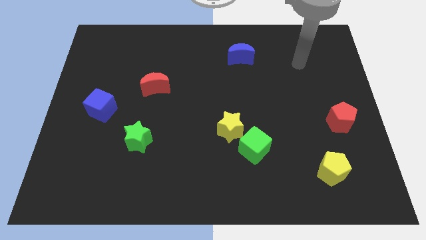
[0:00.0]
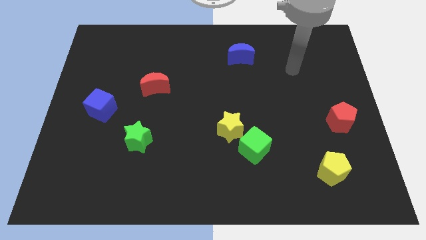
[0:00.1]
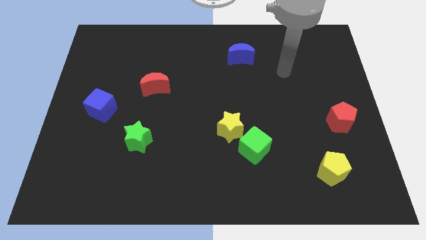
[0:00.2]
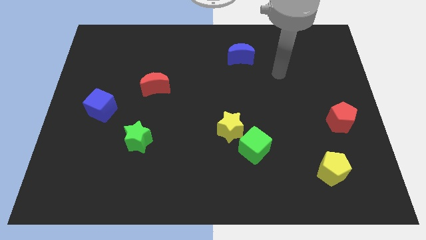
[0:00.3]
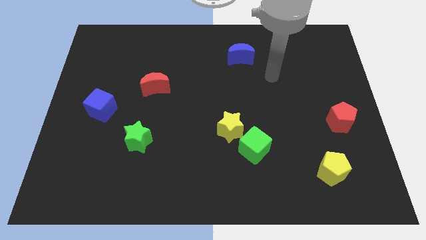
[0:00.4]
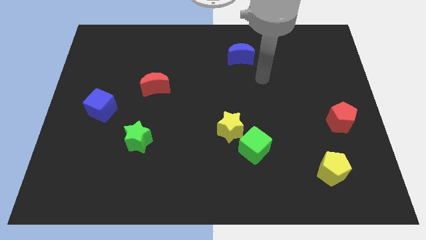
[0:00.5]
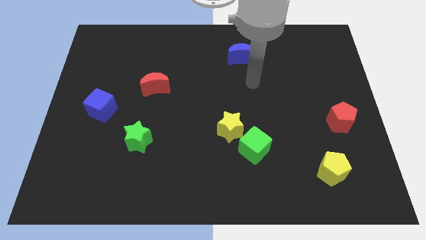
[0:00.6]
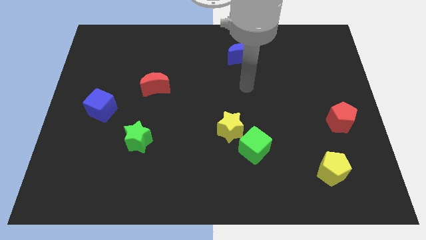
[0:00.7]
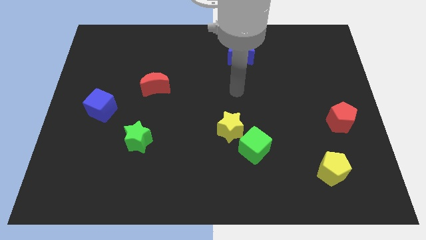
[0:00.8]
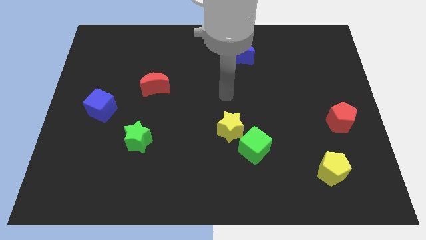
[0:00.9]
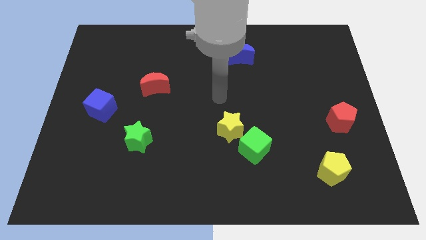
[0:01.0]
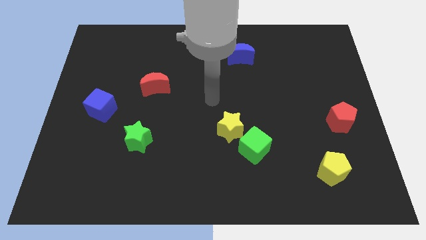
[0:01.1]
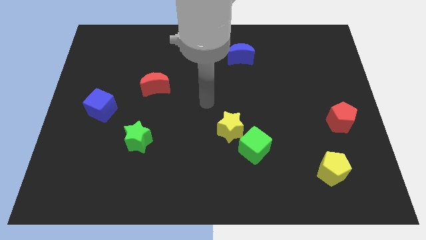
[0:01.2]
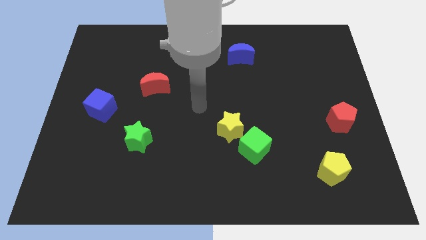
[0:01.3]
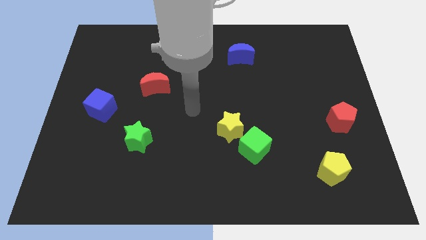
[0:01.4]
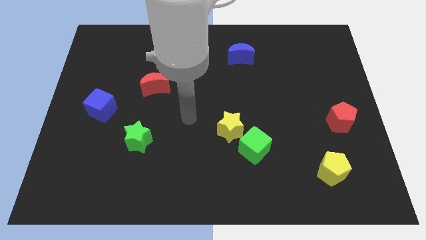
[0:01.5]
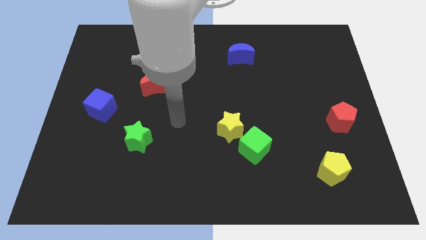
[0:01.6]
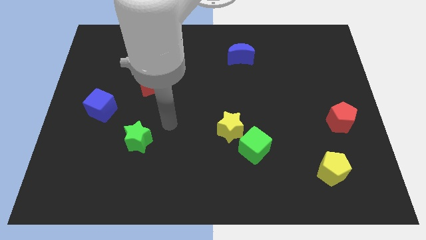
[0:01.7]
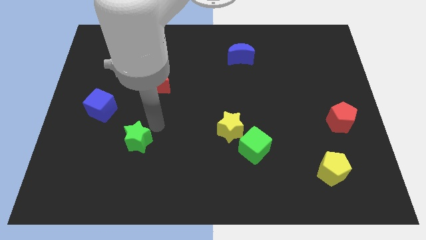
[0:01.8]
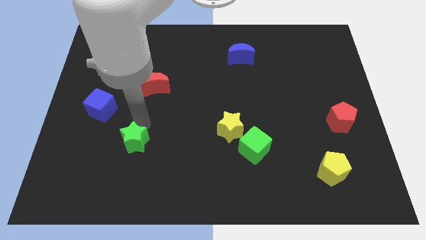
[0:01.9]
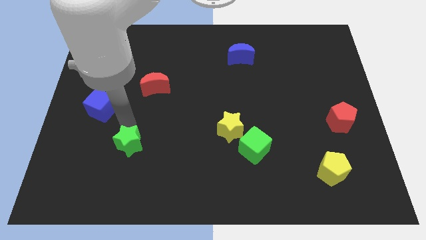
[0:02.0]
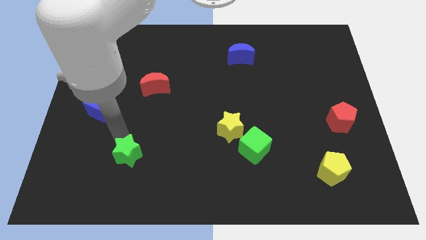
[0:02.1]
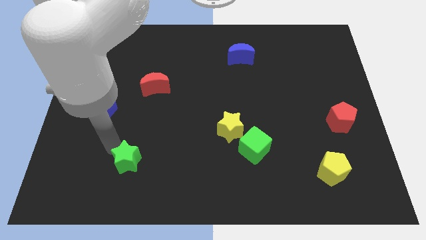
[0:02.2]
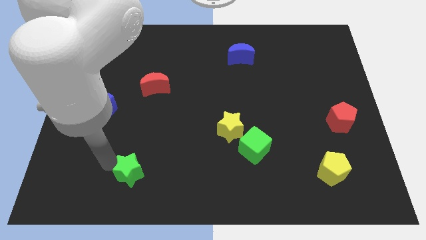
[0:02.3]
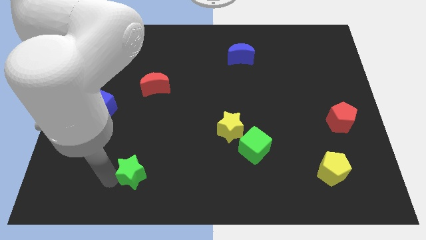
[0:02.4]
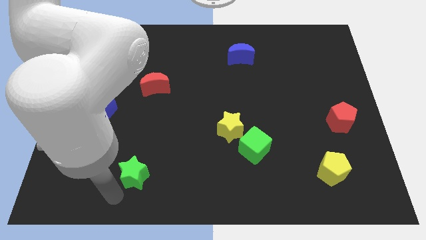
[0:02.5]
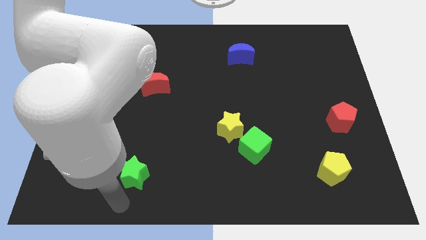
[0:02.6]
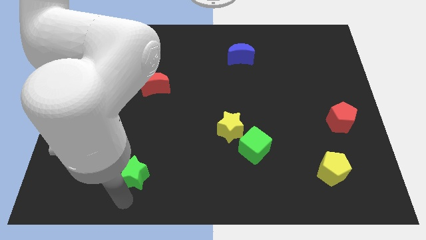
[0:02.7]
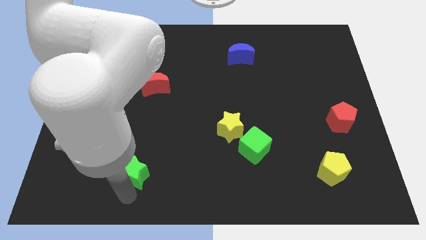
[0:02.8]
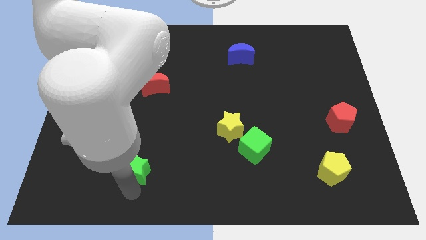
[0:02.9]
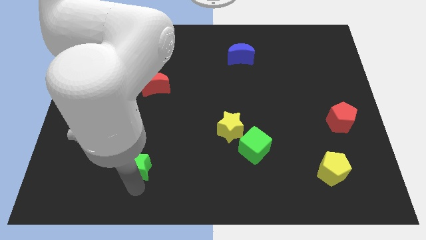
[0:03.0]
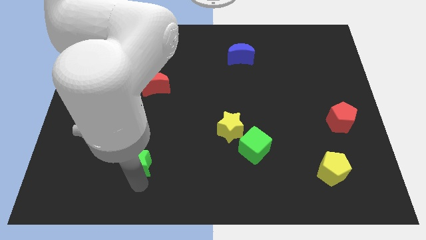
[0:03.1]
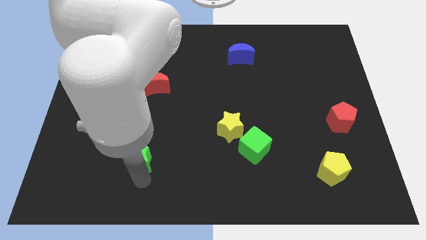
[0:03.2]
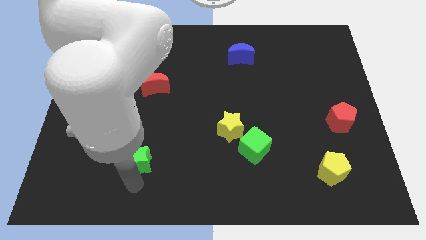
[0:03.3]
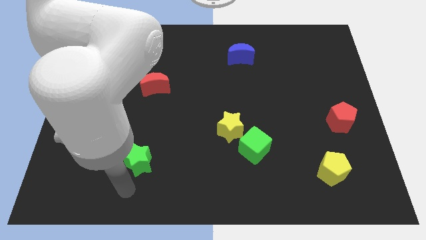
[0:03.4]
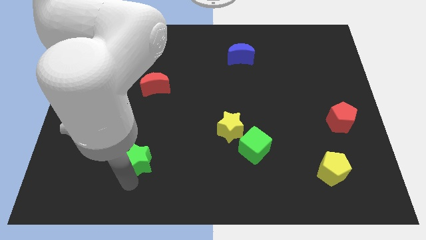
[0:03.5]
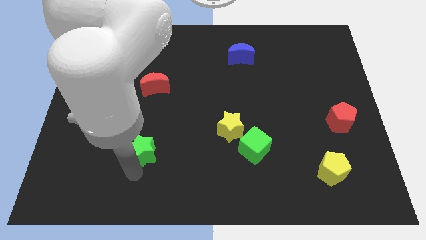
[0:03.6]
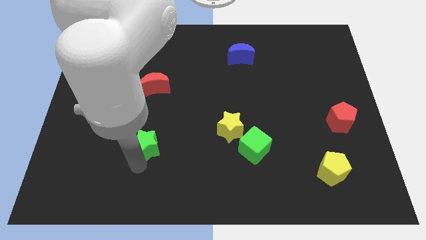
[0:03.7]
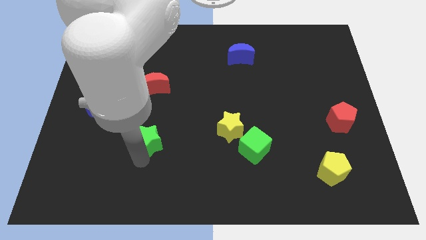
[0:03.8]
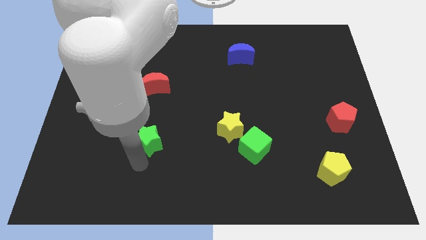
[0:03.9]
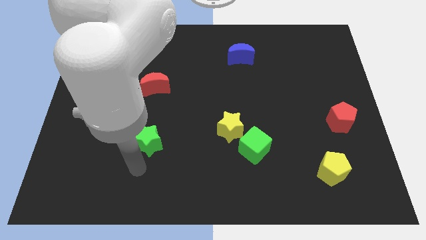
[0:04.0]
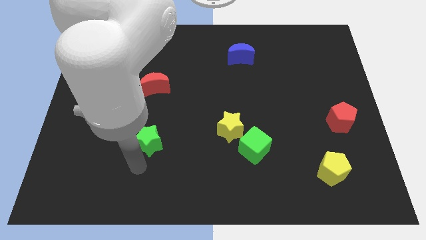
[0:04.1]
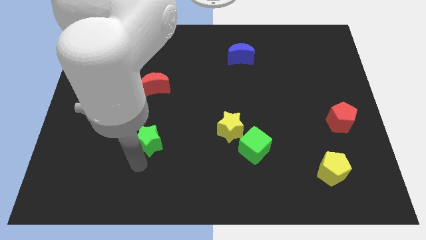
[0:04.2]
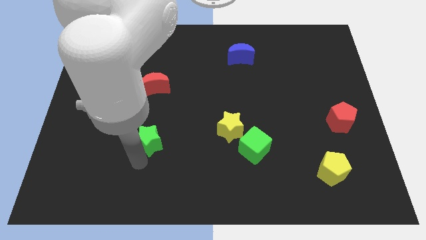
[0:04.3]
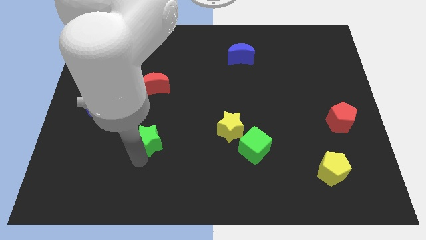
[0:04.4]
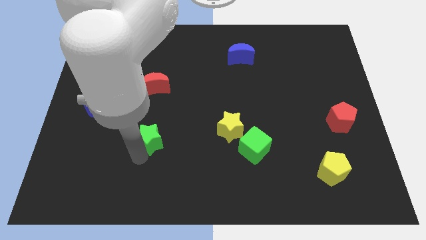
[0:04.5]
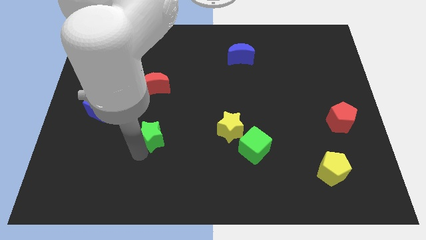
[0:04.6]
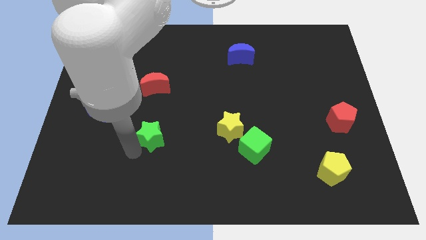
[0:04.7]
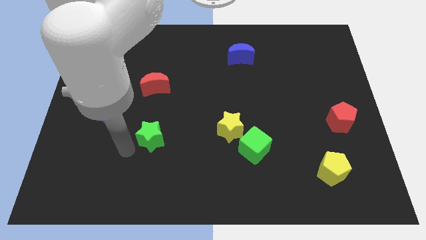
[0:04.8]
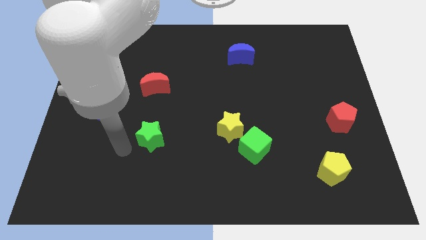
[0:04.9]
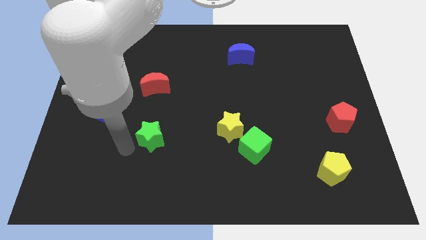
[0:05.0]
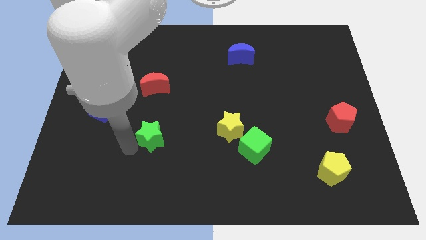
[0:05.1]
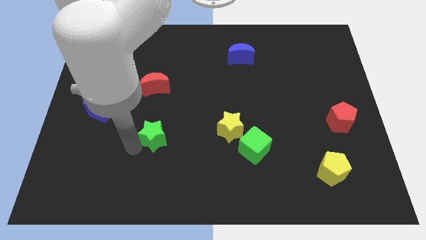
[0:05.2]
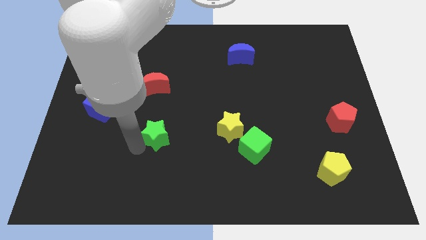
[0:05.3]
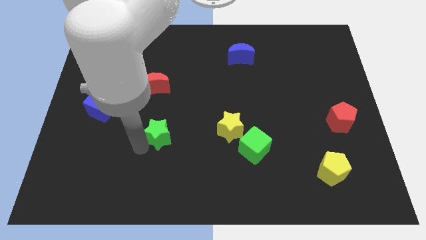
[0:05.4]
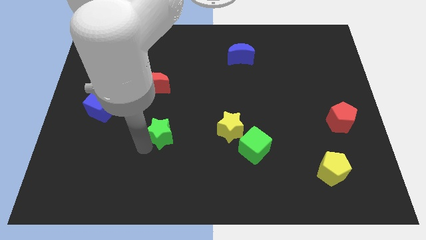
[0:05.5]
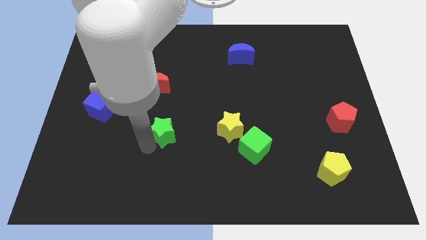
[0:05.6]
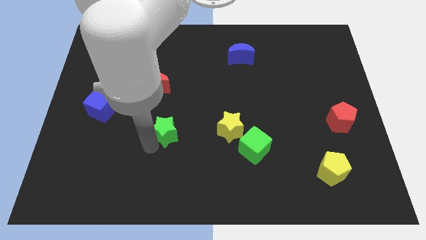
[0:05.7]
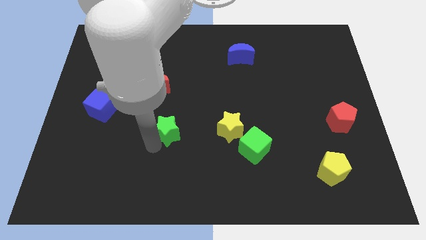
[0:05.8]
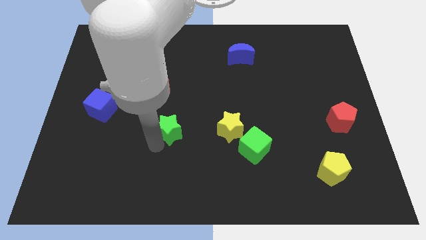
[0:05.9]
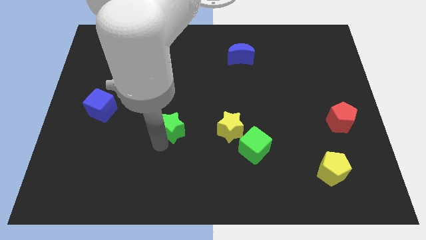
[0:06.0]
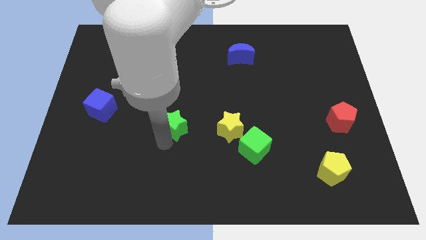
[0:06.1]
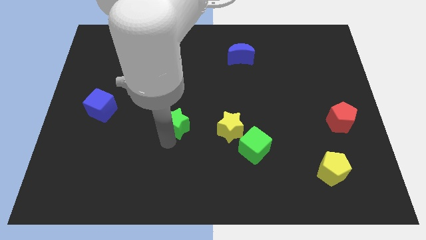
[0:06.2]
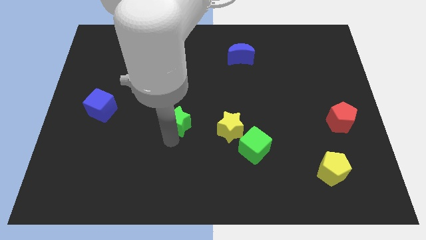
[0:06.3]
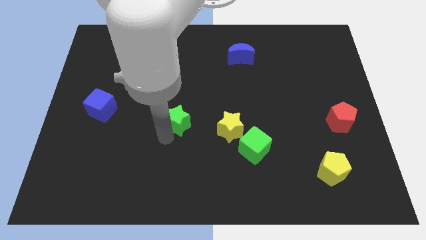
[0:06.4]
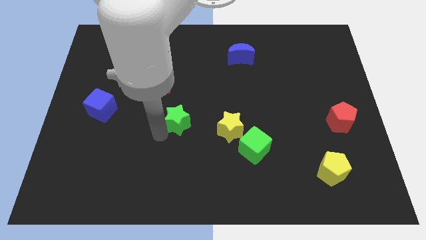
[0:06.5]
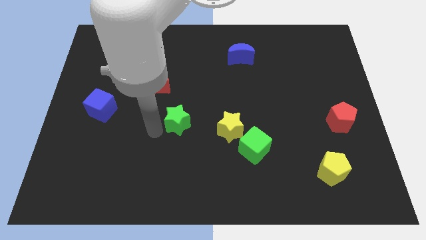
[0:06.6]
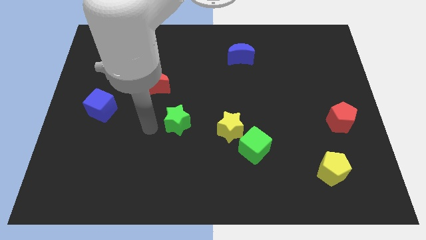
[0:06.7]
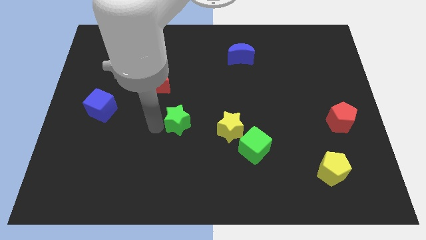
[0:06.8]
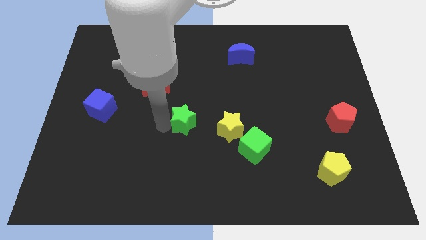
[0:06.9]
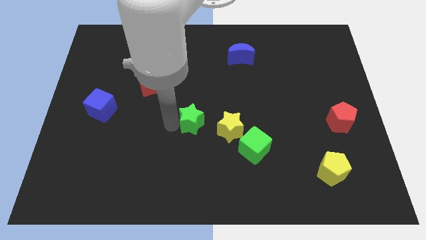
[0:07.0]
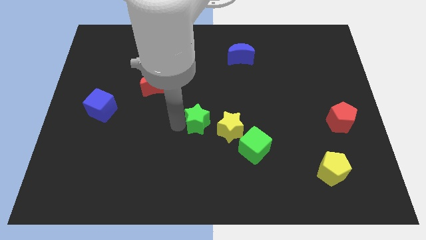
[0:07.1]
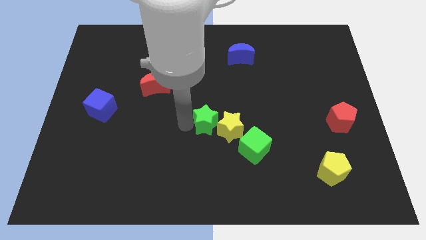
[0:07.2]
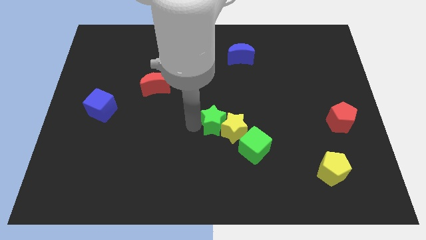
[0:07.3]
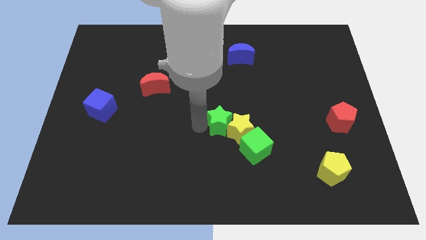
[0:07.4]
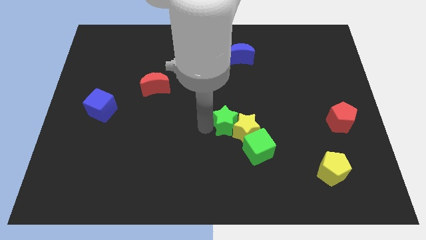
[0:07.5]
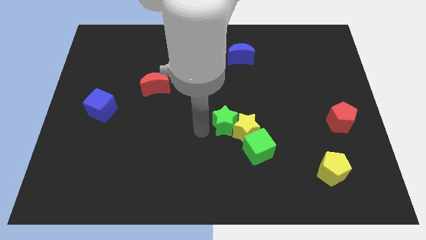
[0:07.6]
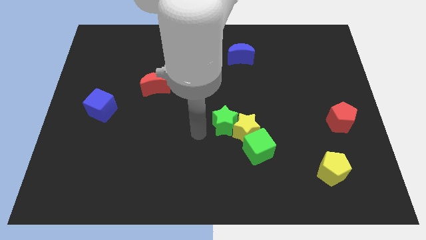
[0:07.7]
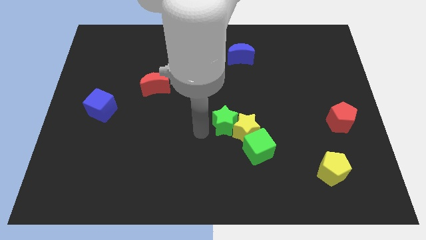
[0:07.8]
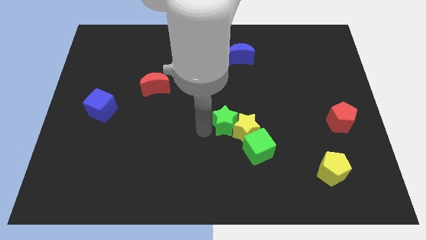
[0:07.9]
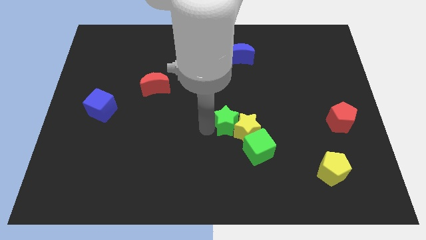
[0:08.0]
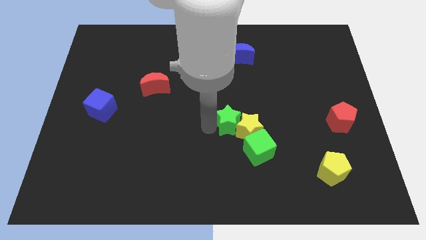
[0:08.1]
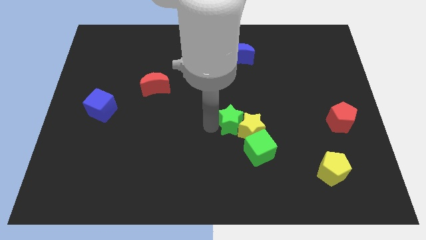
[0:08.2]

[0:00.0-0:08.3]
move the green star to the right
